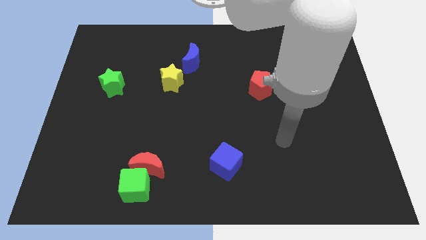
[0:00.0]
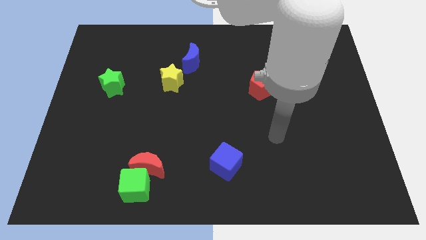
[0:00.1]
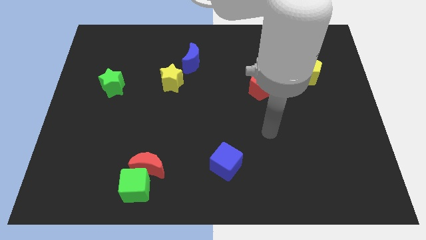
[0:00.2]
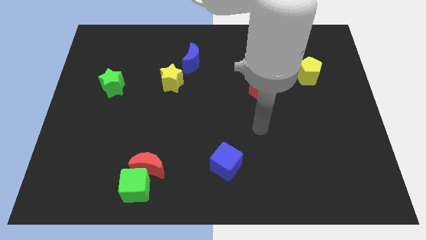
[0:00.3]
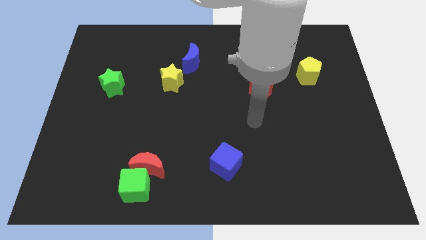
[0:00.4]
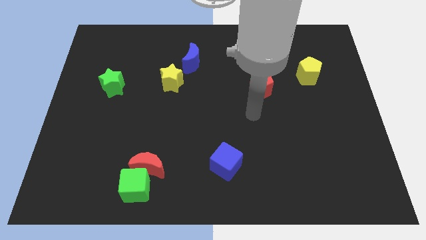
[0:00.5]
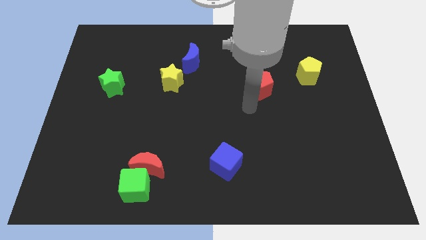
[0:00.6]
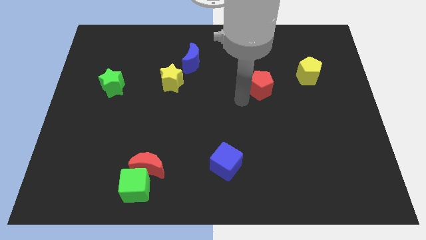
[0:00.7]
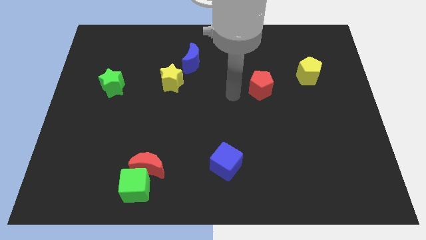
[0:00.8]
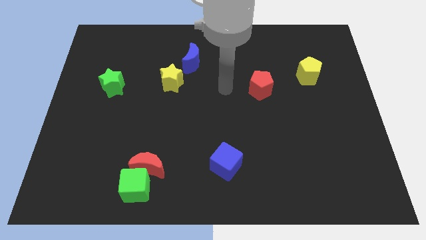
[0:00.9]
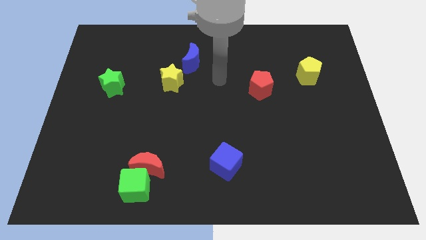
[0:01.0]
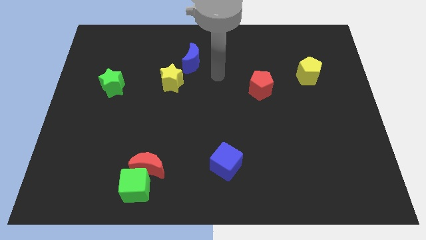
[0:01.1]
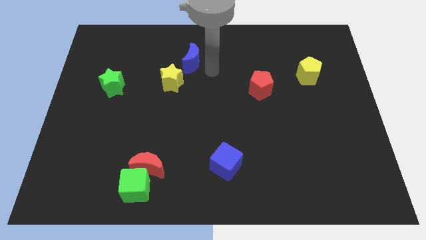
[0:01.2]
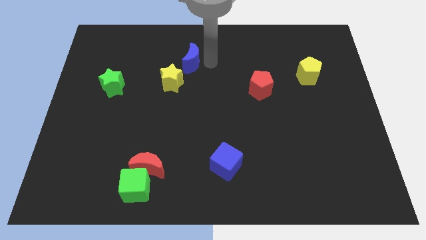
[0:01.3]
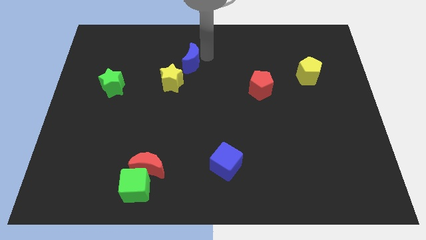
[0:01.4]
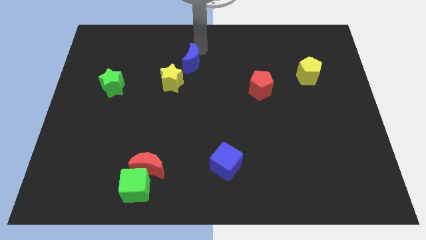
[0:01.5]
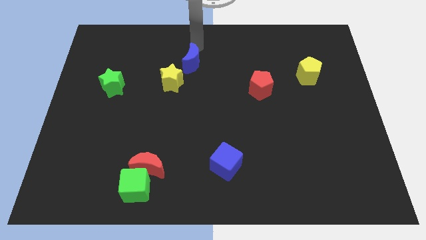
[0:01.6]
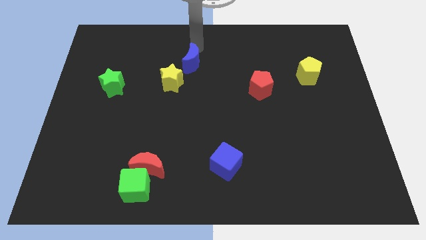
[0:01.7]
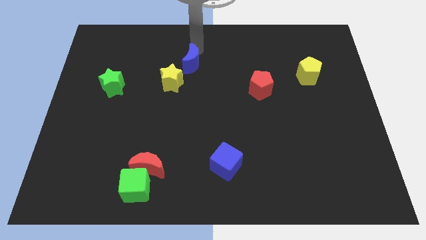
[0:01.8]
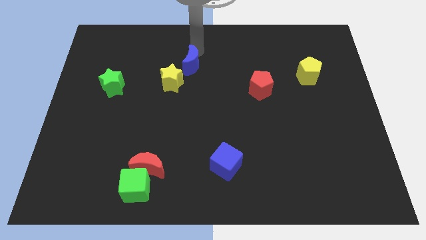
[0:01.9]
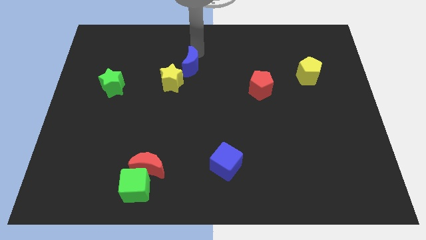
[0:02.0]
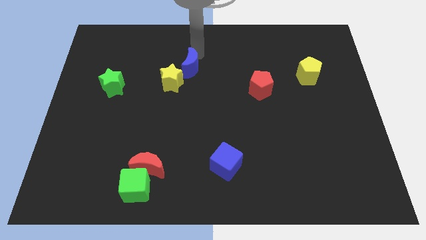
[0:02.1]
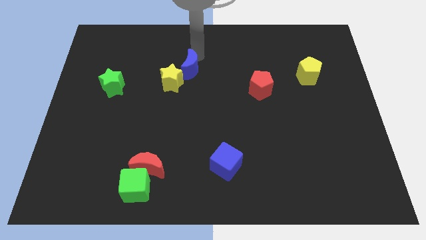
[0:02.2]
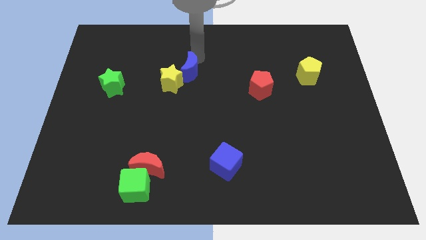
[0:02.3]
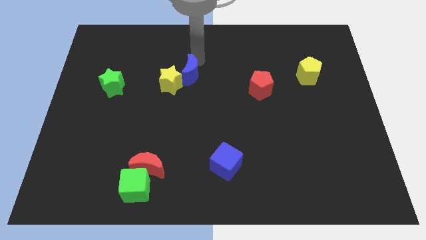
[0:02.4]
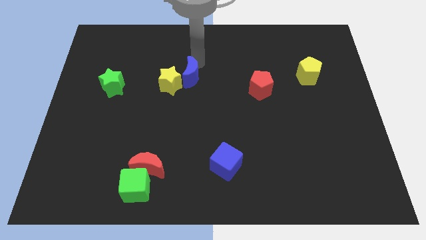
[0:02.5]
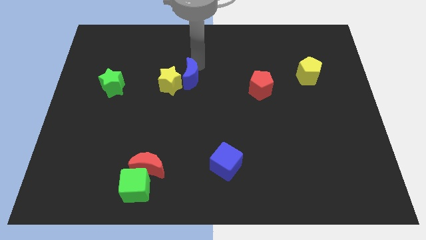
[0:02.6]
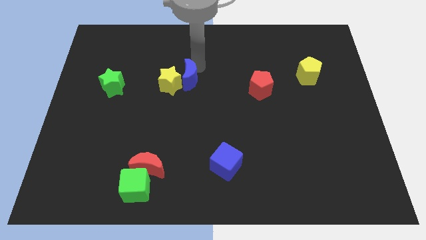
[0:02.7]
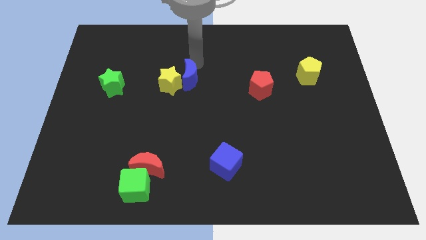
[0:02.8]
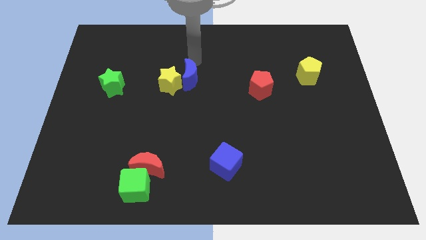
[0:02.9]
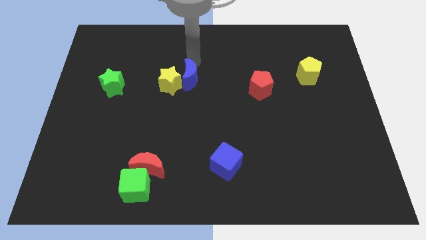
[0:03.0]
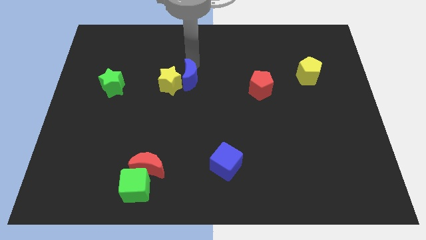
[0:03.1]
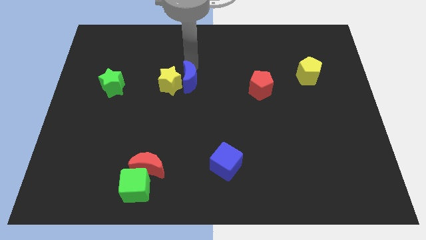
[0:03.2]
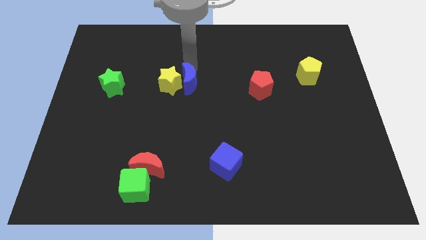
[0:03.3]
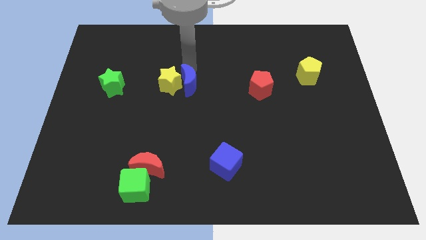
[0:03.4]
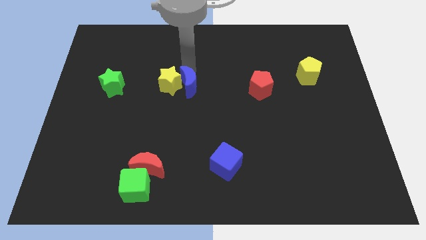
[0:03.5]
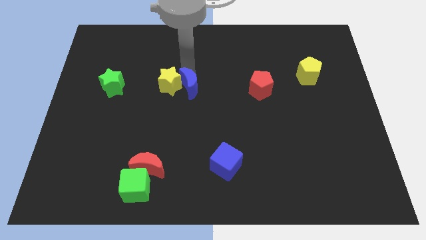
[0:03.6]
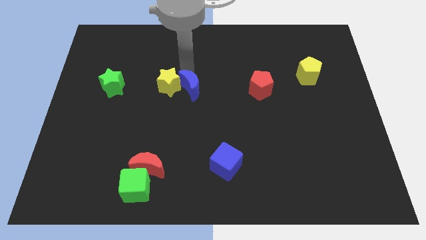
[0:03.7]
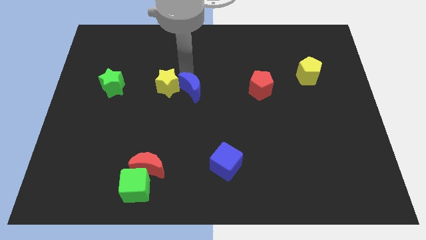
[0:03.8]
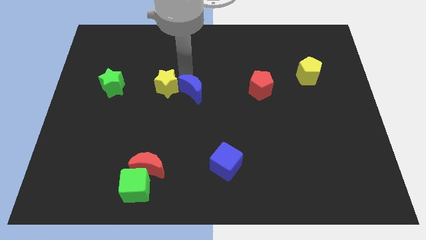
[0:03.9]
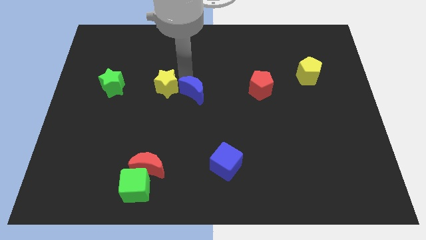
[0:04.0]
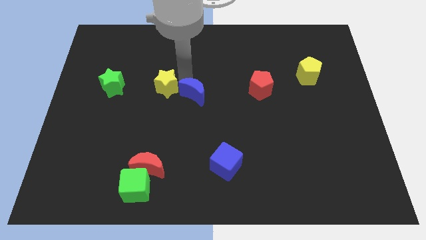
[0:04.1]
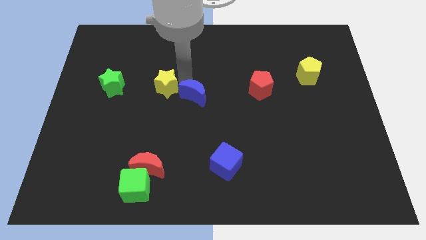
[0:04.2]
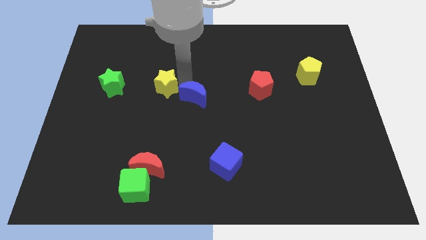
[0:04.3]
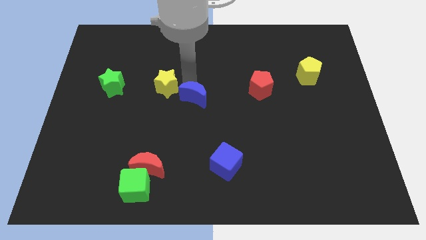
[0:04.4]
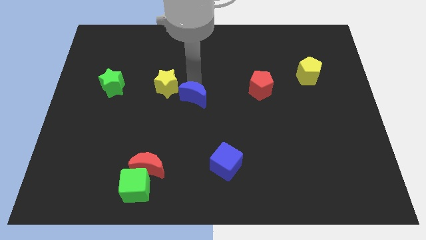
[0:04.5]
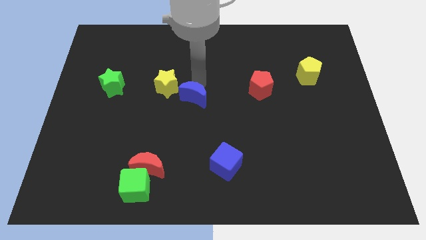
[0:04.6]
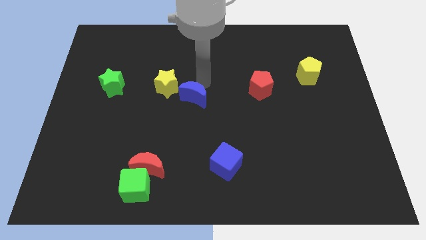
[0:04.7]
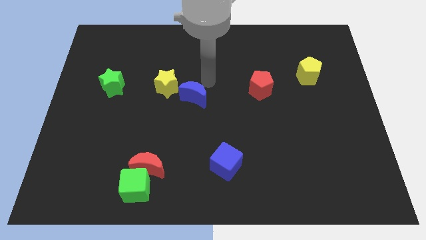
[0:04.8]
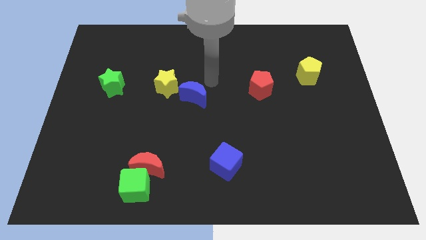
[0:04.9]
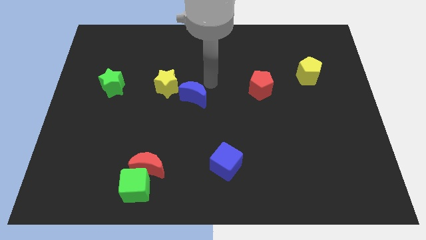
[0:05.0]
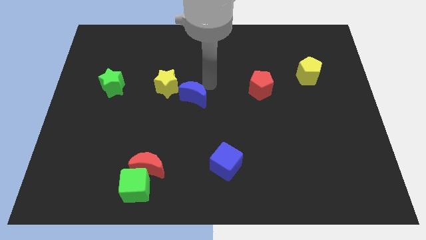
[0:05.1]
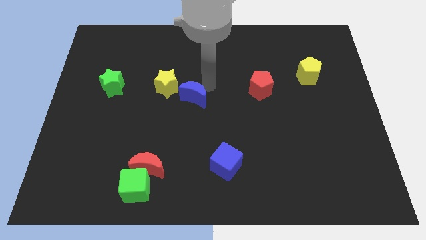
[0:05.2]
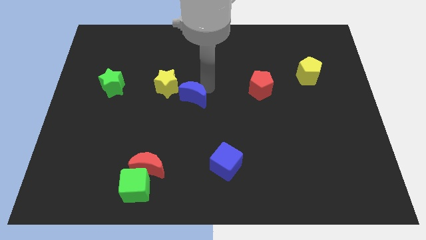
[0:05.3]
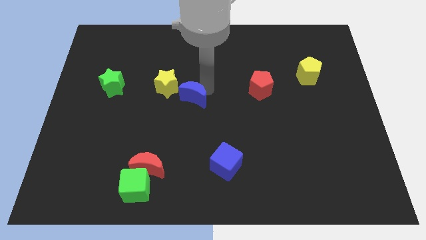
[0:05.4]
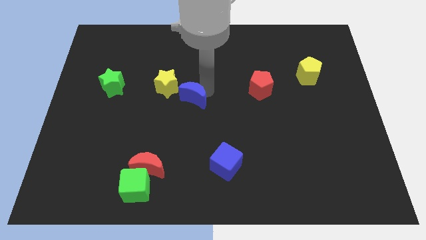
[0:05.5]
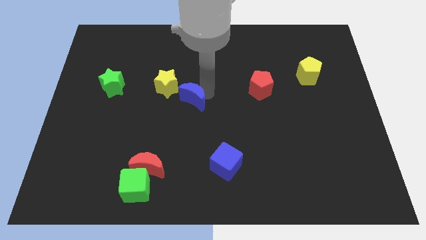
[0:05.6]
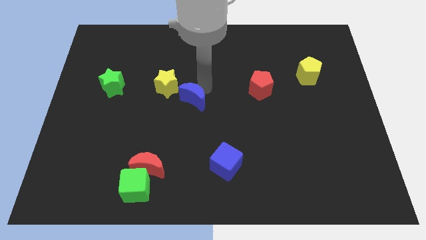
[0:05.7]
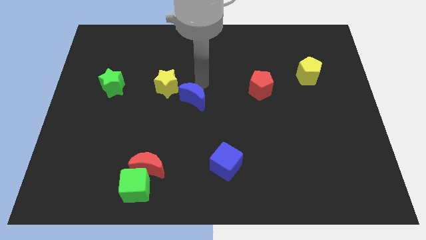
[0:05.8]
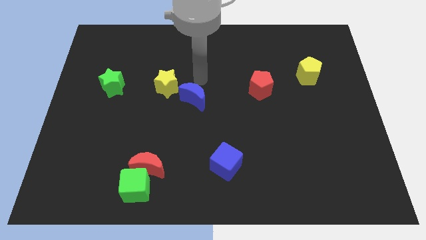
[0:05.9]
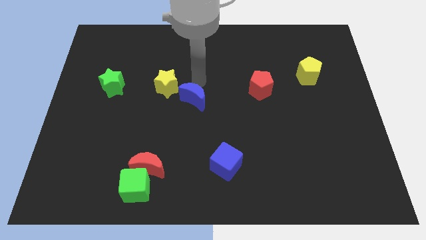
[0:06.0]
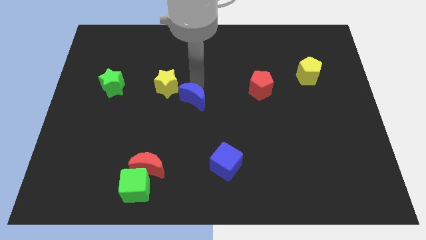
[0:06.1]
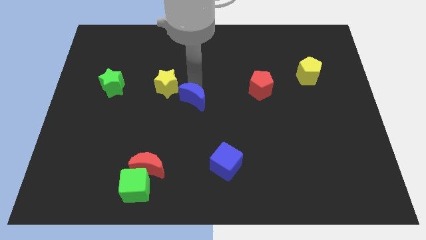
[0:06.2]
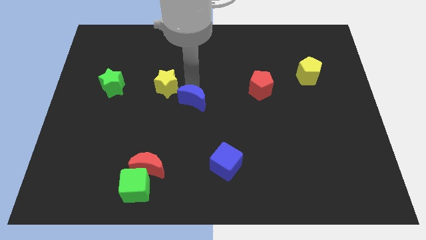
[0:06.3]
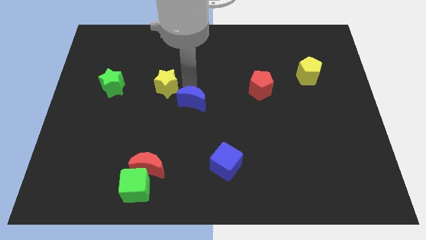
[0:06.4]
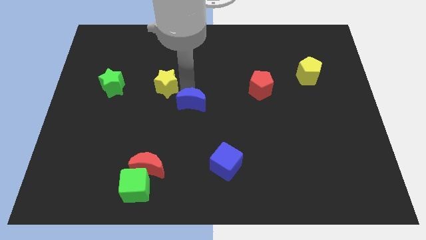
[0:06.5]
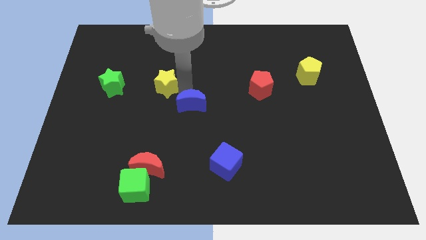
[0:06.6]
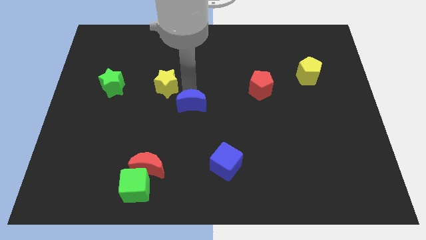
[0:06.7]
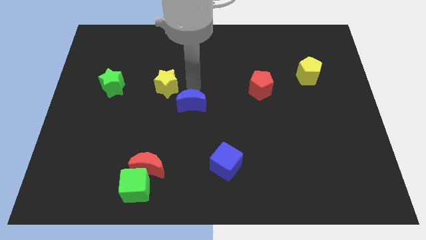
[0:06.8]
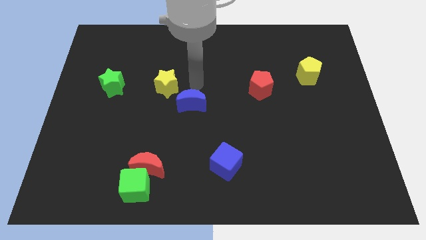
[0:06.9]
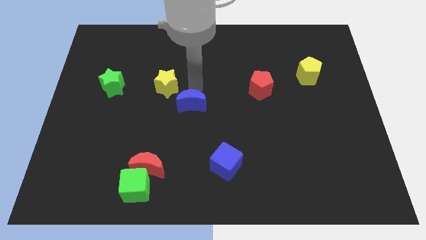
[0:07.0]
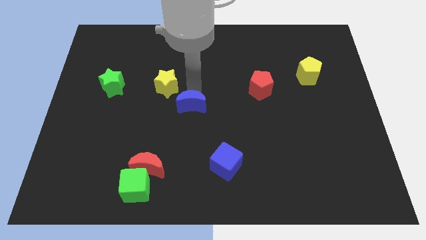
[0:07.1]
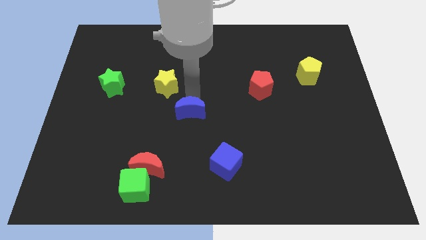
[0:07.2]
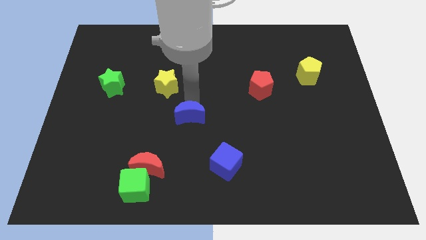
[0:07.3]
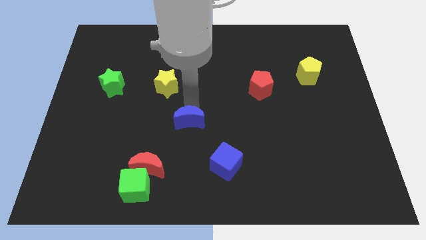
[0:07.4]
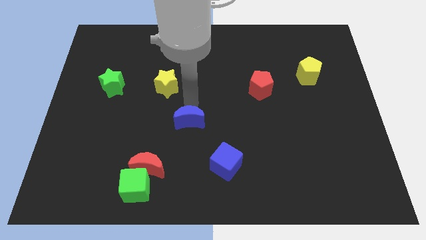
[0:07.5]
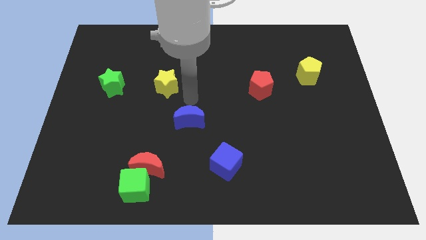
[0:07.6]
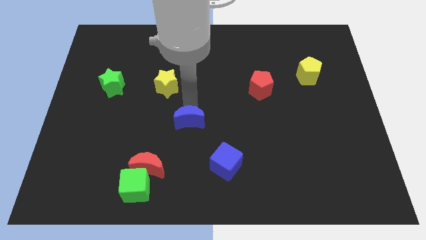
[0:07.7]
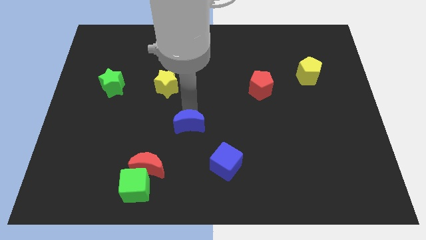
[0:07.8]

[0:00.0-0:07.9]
push the blue moon downwards

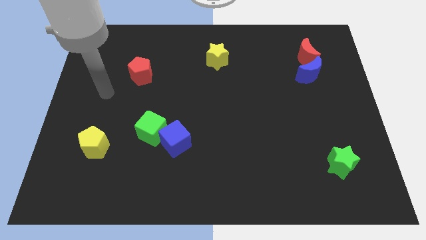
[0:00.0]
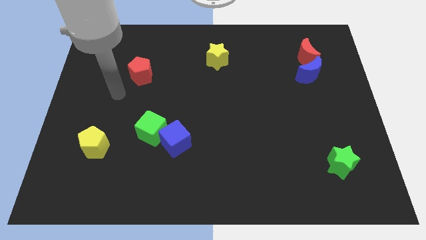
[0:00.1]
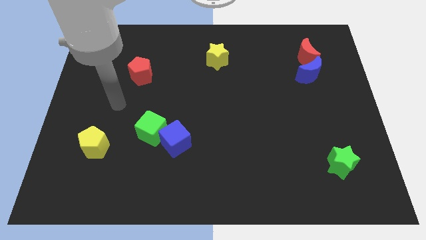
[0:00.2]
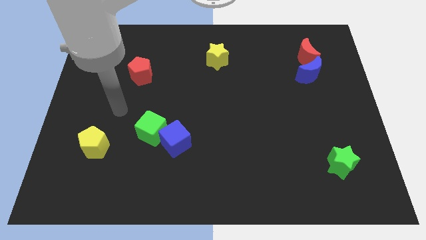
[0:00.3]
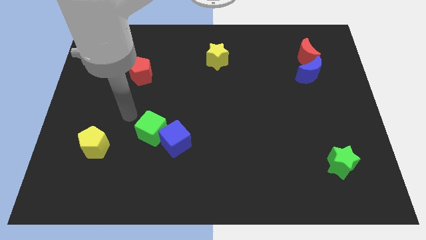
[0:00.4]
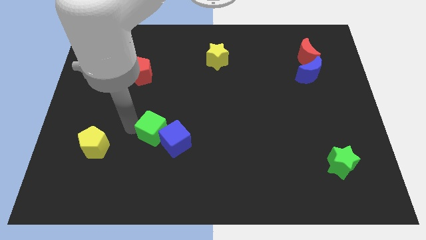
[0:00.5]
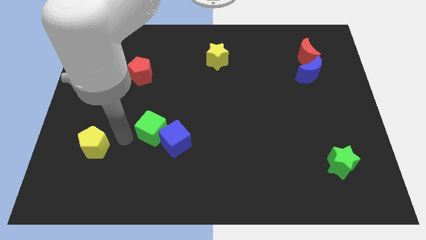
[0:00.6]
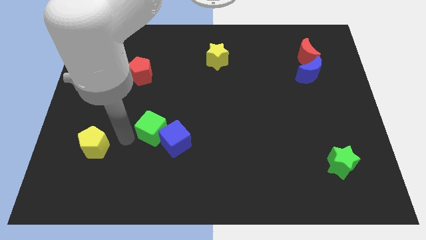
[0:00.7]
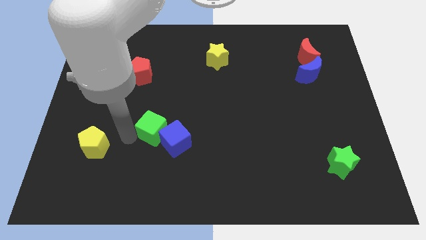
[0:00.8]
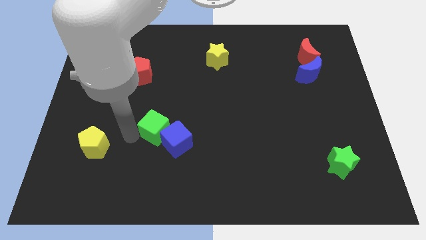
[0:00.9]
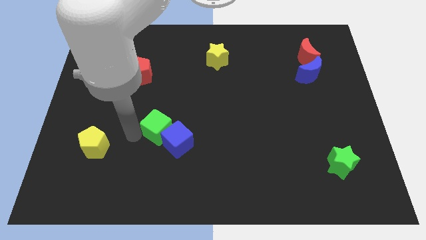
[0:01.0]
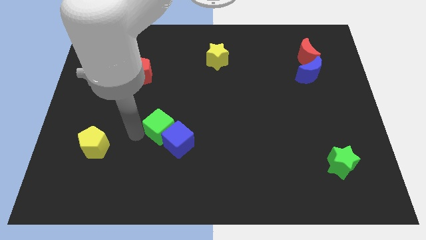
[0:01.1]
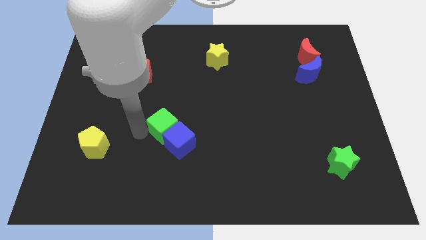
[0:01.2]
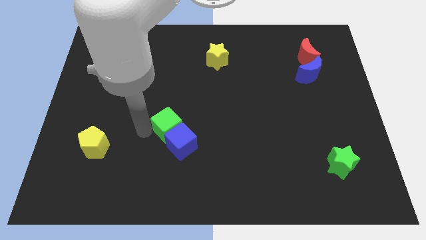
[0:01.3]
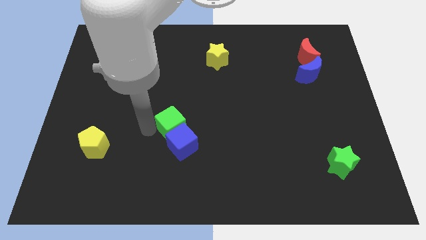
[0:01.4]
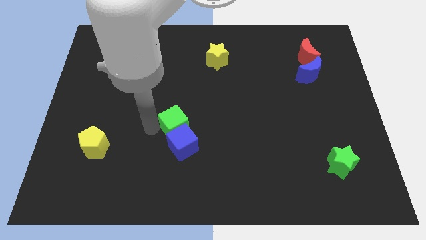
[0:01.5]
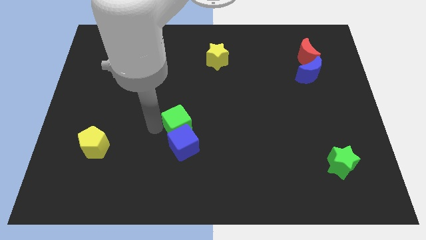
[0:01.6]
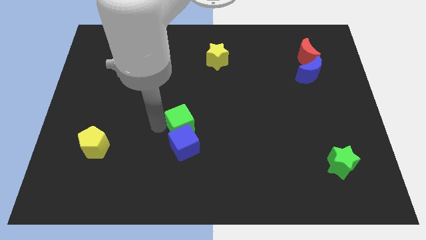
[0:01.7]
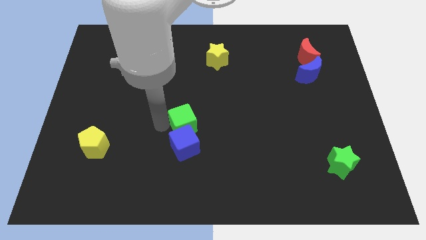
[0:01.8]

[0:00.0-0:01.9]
slide the green cube to the right somewhat
